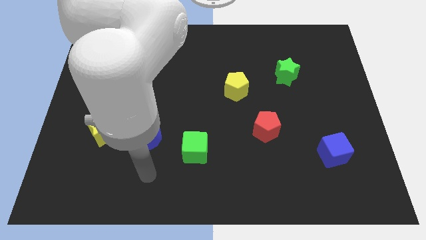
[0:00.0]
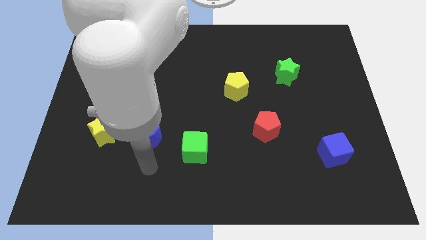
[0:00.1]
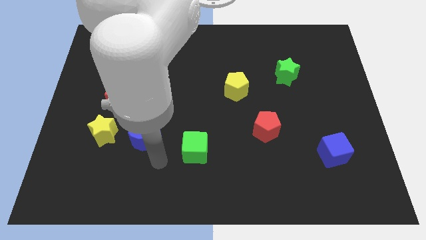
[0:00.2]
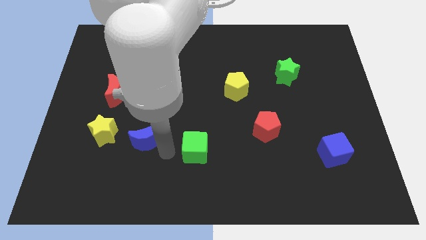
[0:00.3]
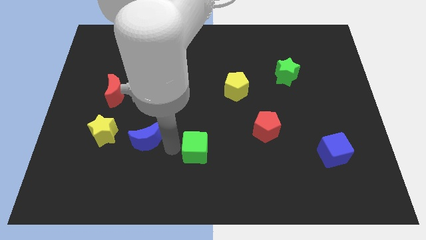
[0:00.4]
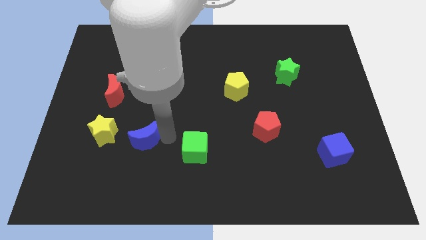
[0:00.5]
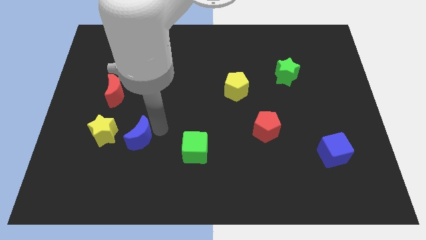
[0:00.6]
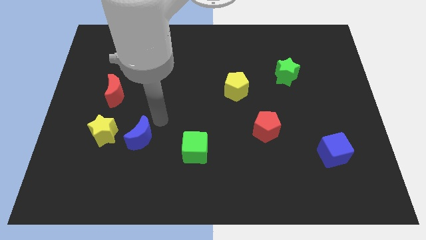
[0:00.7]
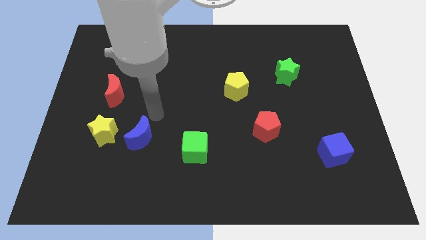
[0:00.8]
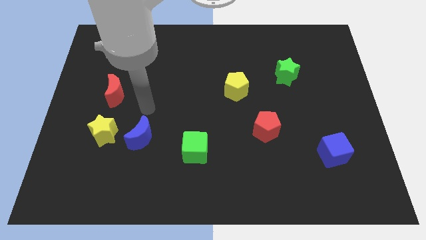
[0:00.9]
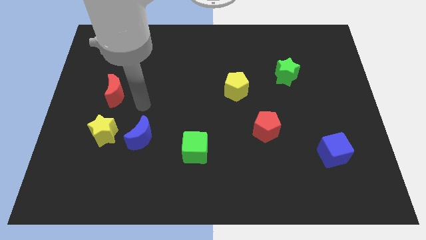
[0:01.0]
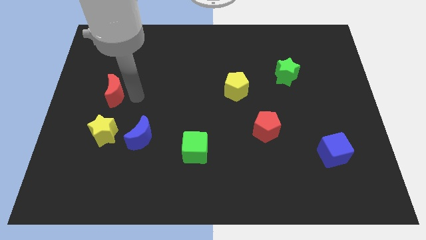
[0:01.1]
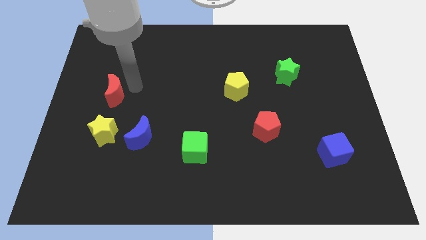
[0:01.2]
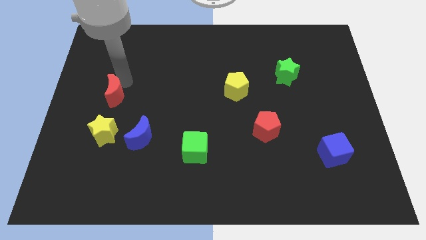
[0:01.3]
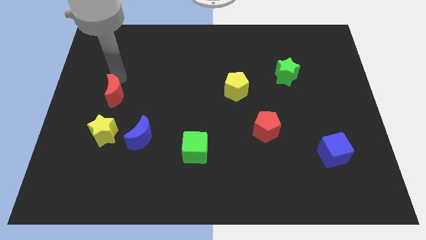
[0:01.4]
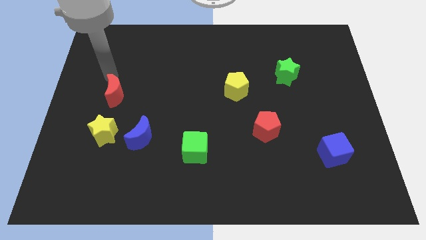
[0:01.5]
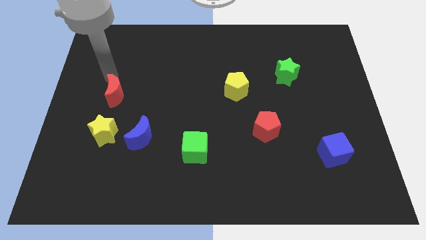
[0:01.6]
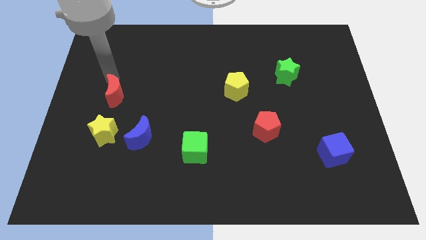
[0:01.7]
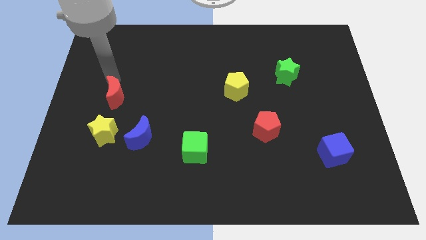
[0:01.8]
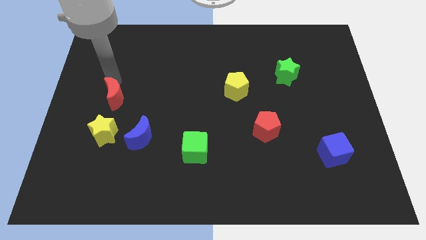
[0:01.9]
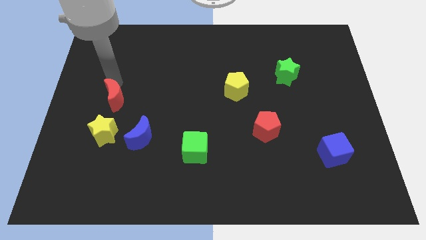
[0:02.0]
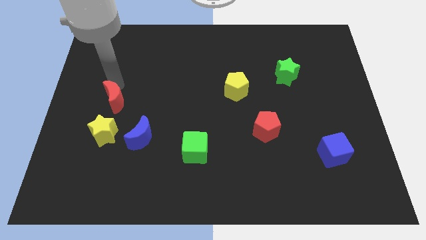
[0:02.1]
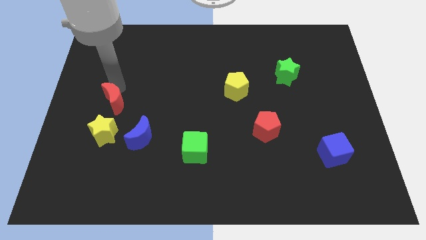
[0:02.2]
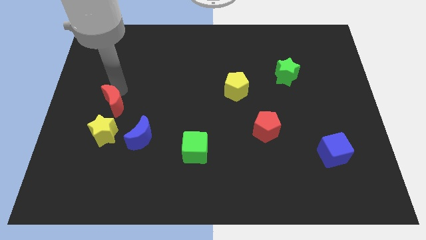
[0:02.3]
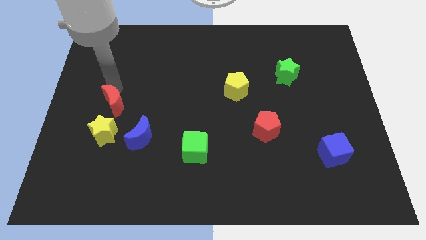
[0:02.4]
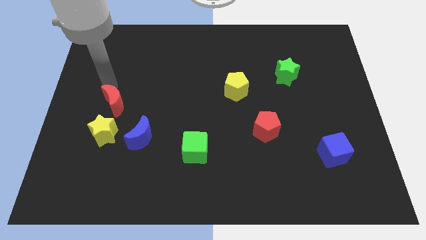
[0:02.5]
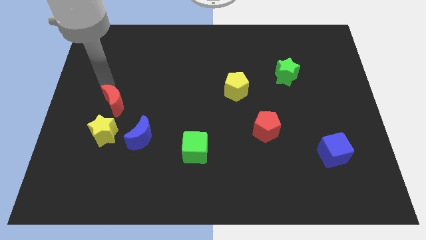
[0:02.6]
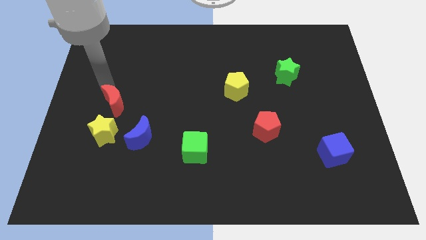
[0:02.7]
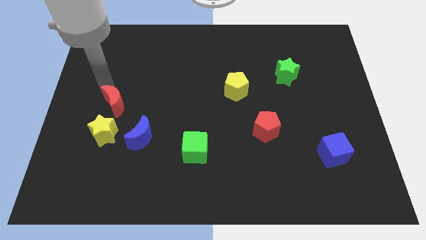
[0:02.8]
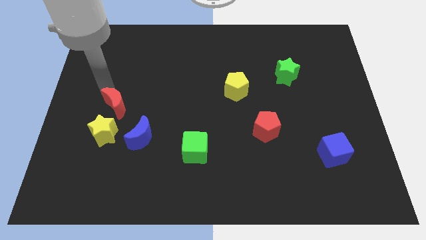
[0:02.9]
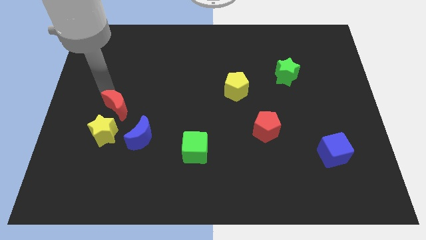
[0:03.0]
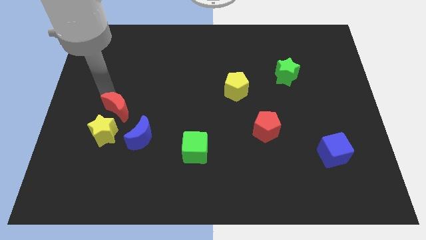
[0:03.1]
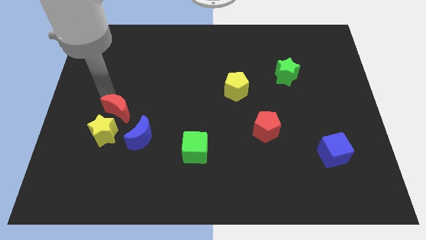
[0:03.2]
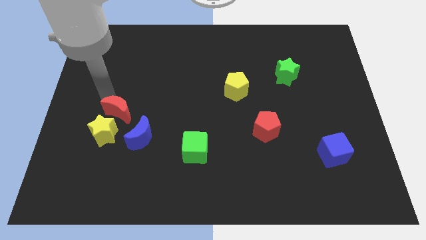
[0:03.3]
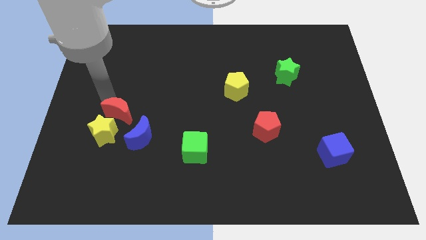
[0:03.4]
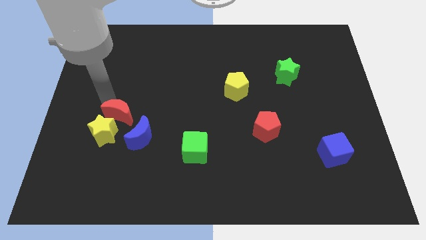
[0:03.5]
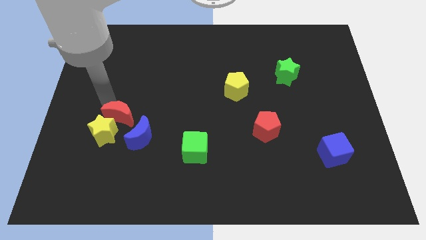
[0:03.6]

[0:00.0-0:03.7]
move the red moon down slightly

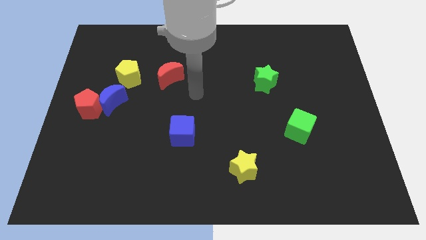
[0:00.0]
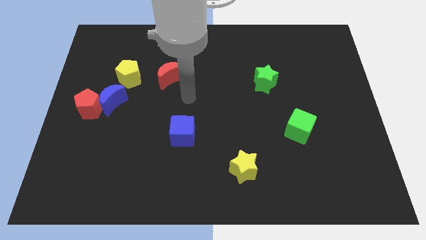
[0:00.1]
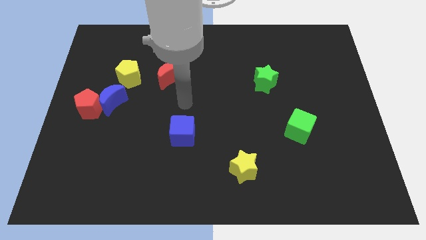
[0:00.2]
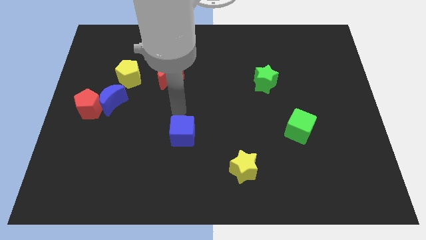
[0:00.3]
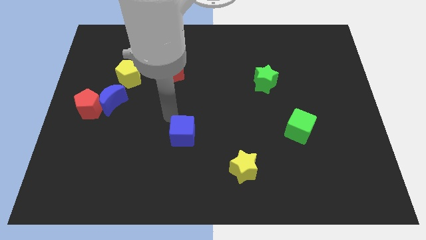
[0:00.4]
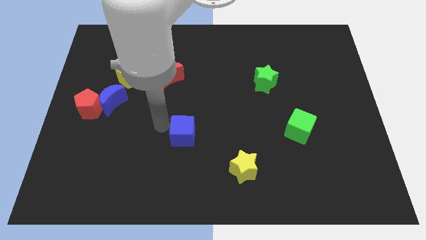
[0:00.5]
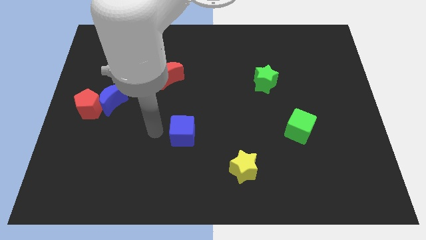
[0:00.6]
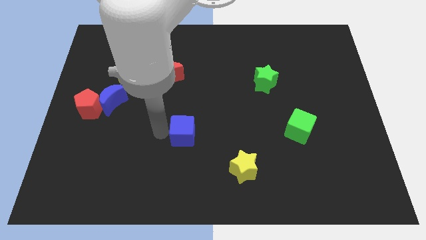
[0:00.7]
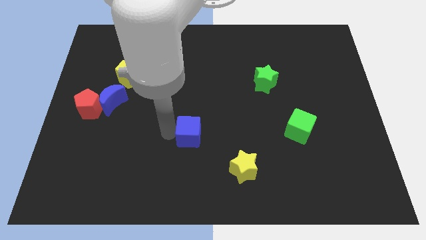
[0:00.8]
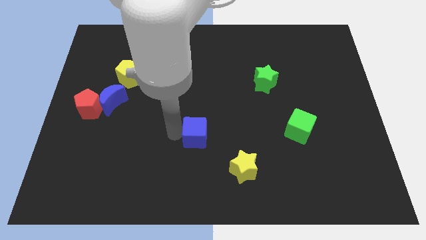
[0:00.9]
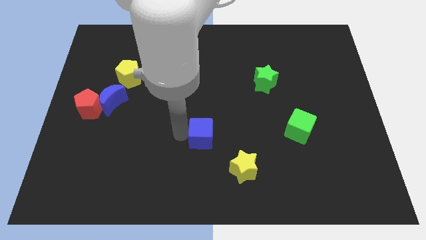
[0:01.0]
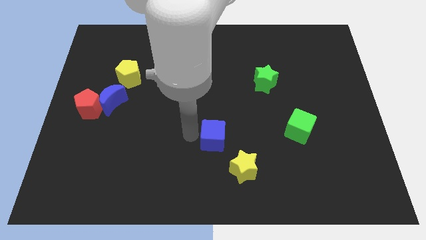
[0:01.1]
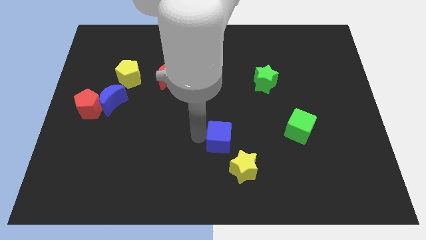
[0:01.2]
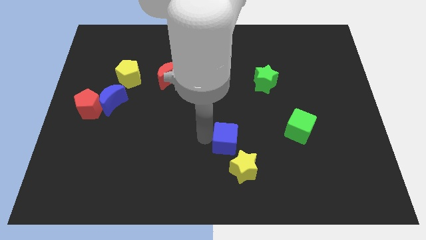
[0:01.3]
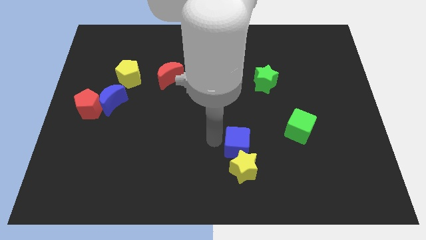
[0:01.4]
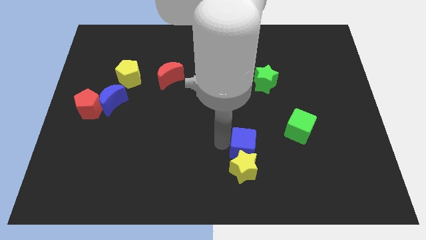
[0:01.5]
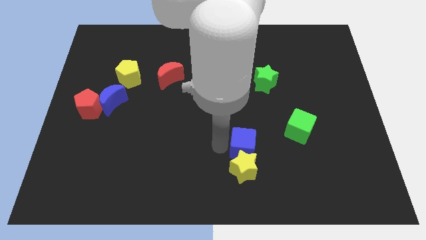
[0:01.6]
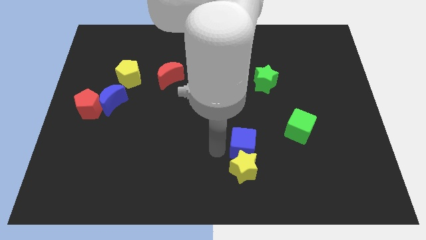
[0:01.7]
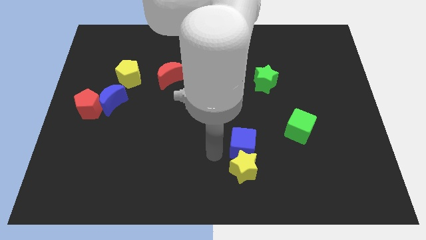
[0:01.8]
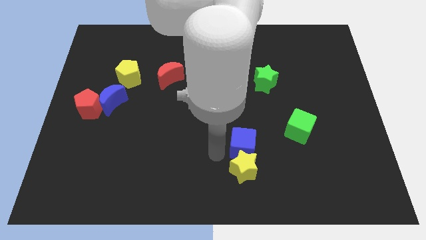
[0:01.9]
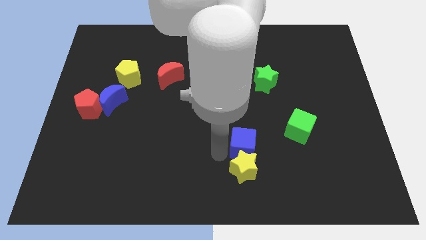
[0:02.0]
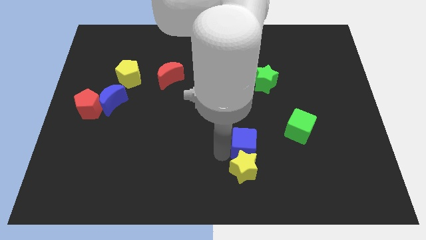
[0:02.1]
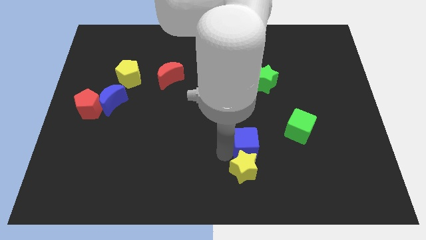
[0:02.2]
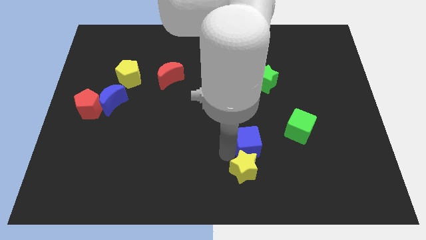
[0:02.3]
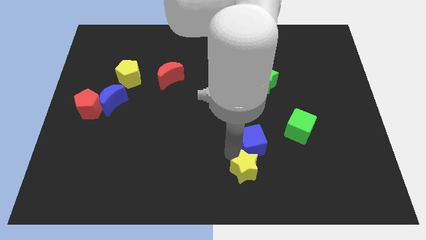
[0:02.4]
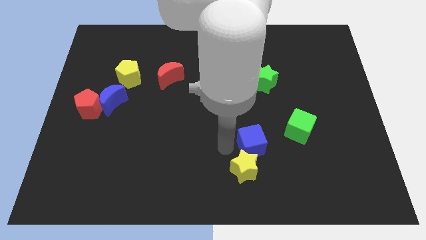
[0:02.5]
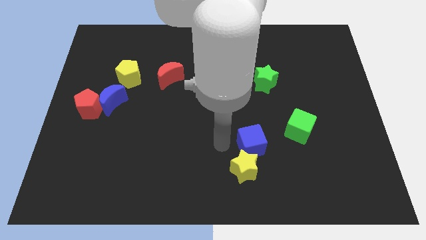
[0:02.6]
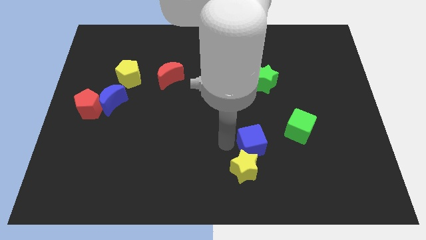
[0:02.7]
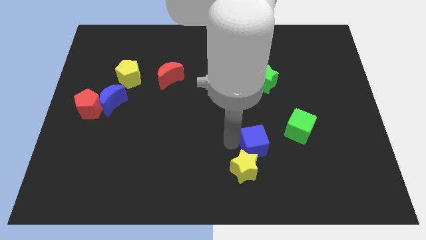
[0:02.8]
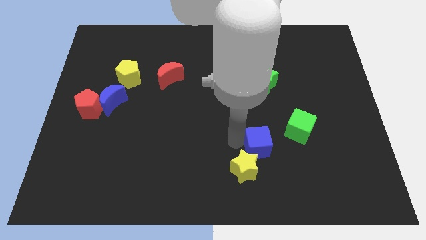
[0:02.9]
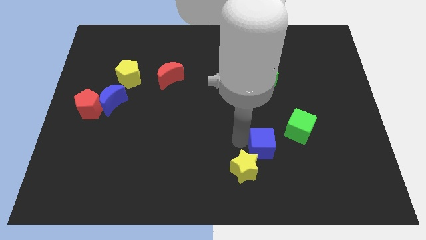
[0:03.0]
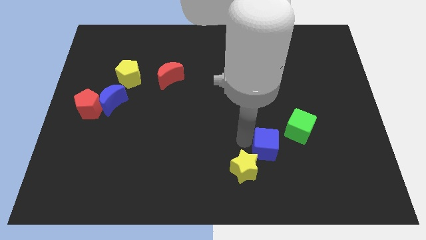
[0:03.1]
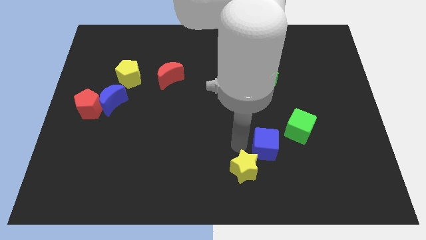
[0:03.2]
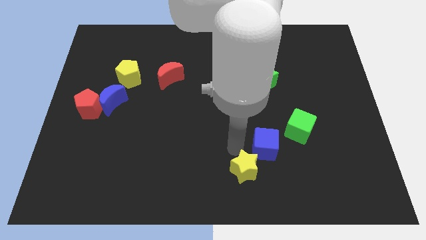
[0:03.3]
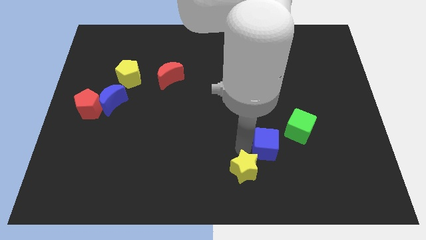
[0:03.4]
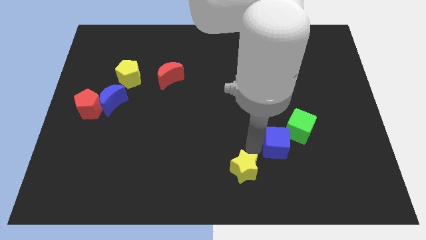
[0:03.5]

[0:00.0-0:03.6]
push the blue cube to the right

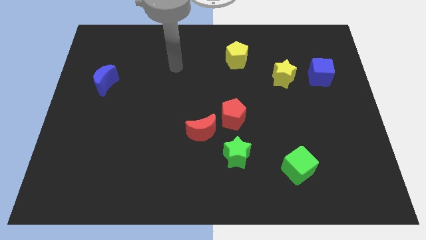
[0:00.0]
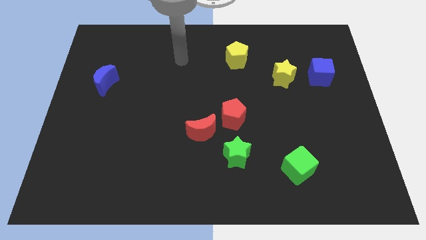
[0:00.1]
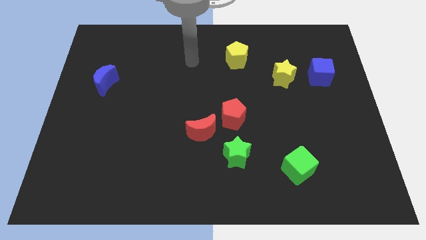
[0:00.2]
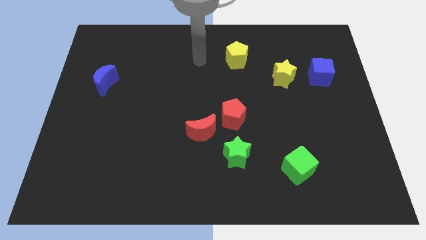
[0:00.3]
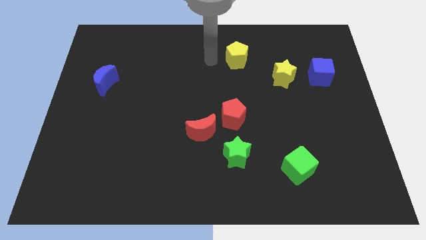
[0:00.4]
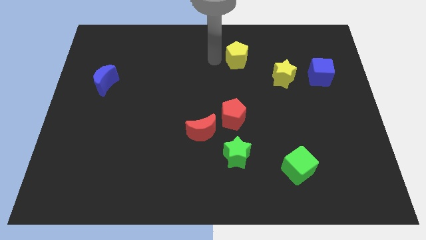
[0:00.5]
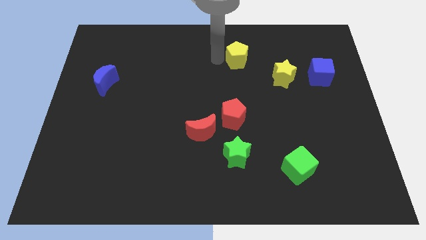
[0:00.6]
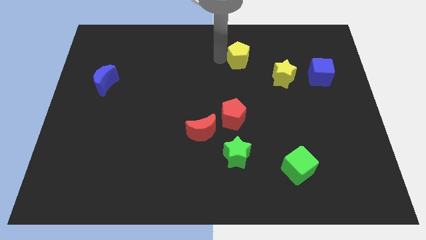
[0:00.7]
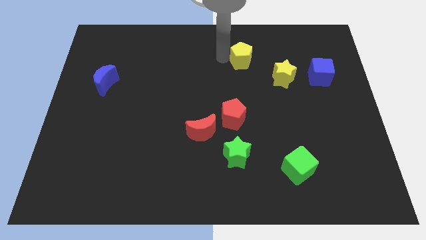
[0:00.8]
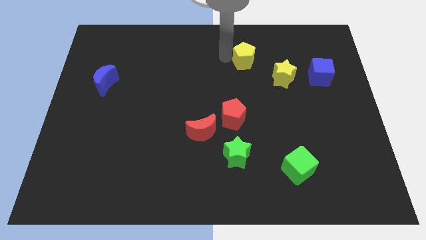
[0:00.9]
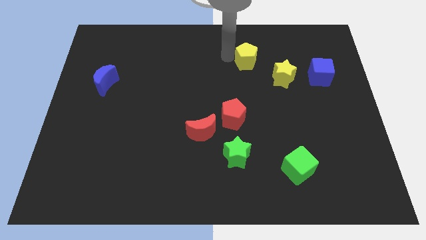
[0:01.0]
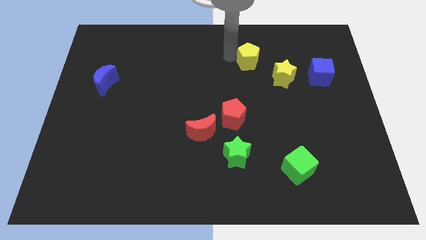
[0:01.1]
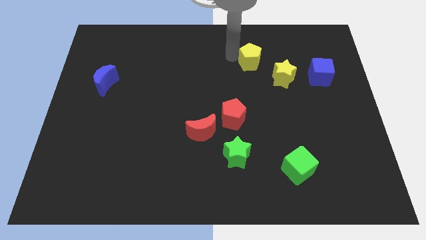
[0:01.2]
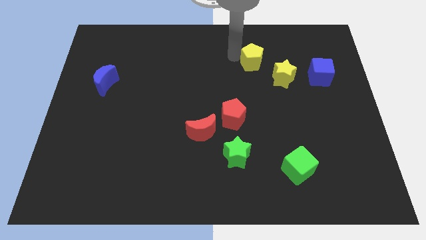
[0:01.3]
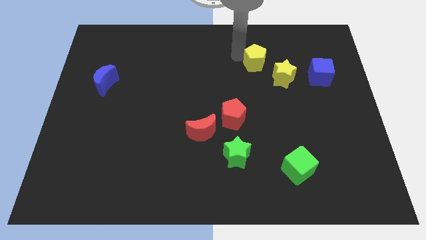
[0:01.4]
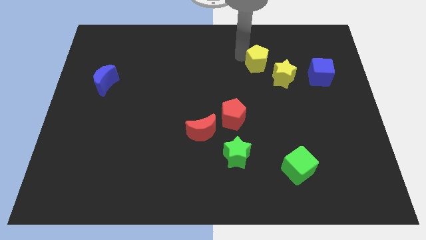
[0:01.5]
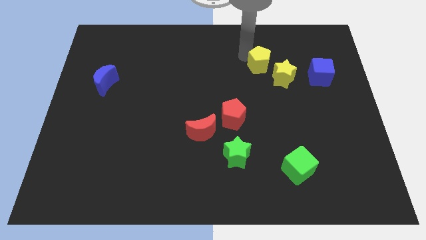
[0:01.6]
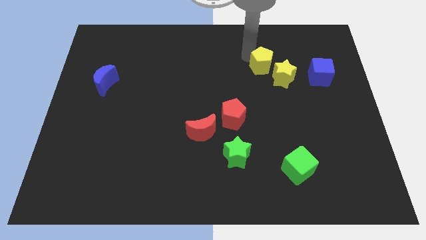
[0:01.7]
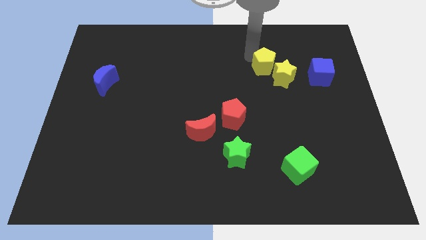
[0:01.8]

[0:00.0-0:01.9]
slightly slide the yellow pentagon right
